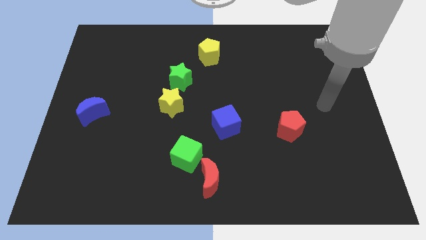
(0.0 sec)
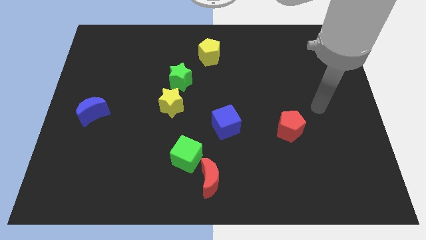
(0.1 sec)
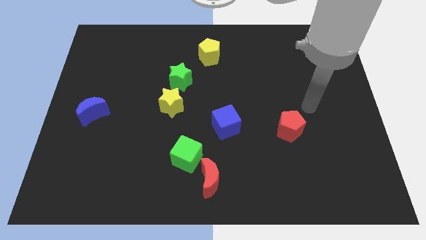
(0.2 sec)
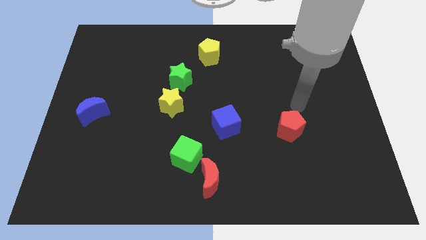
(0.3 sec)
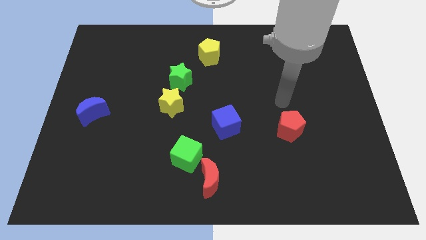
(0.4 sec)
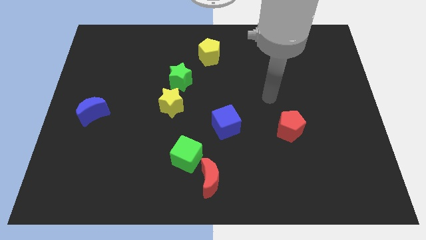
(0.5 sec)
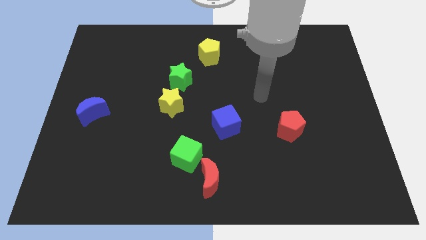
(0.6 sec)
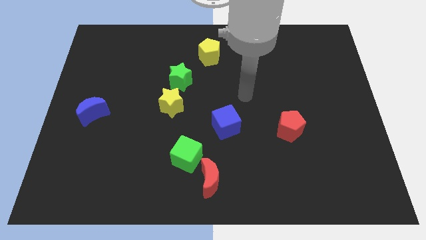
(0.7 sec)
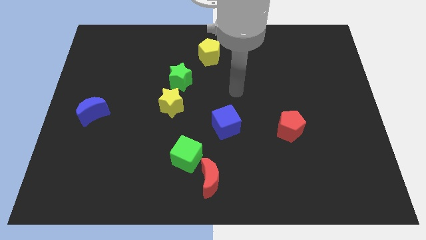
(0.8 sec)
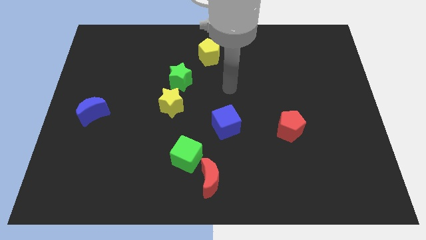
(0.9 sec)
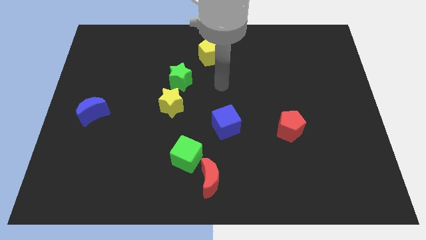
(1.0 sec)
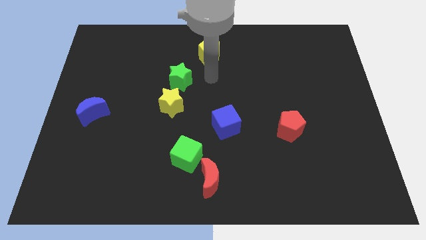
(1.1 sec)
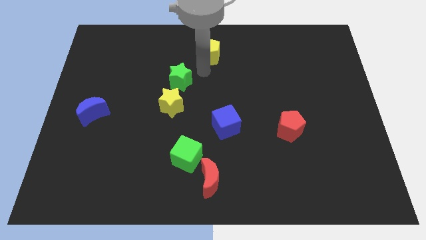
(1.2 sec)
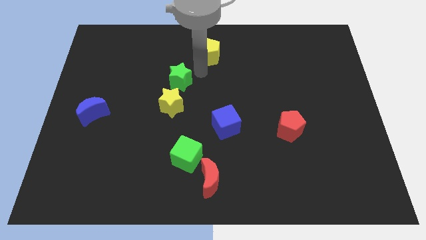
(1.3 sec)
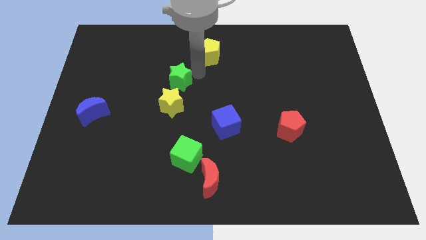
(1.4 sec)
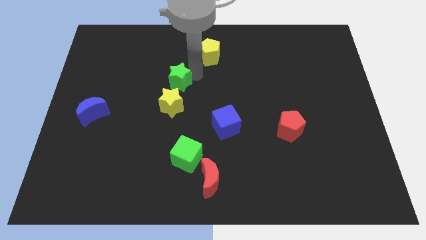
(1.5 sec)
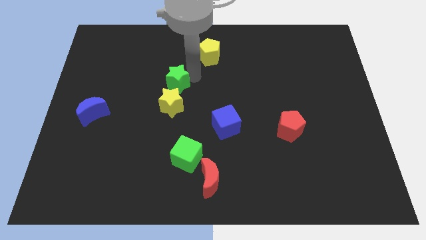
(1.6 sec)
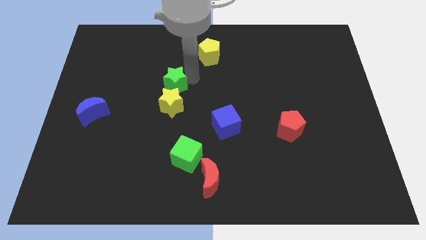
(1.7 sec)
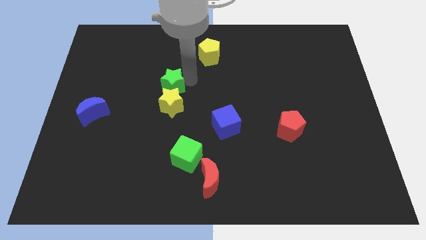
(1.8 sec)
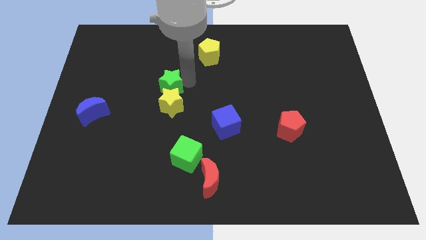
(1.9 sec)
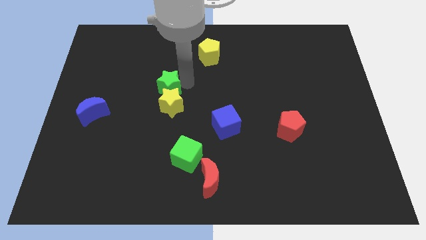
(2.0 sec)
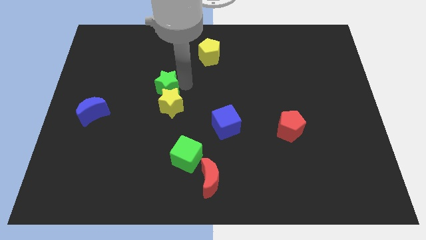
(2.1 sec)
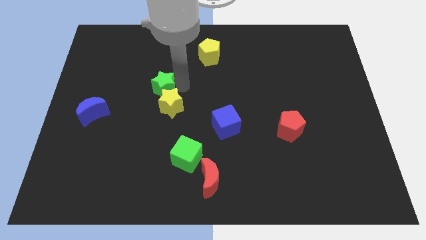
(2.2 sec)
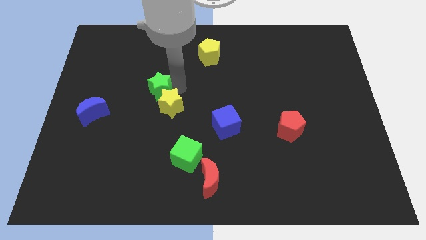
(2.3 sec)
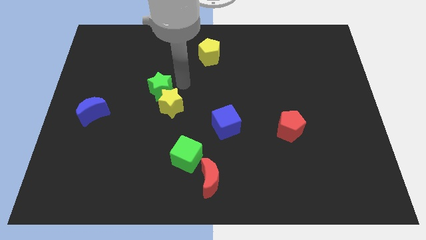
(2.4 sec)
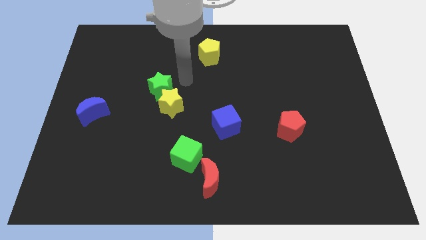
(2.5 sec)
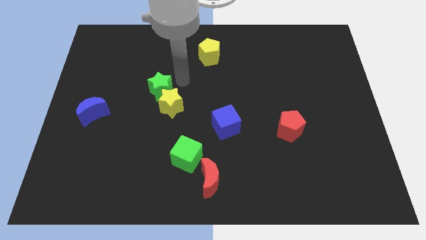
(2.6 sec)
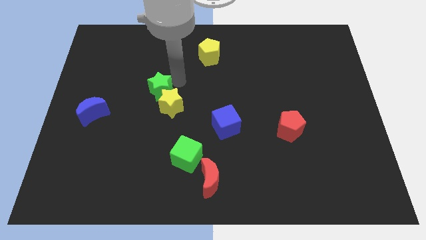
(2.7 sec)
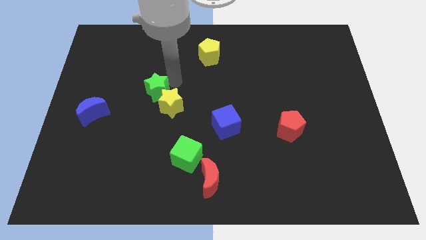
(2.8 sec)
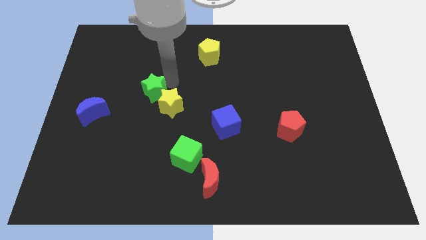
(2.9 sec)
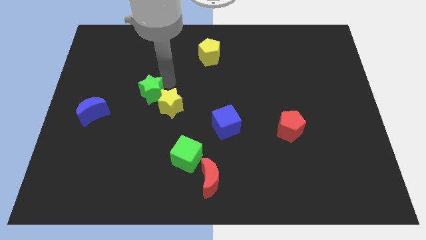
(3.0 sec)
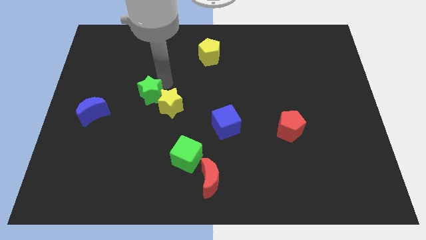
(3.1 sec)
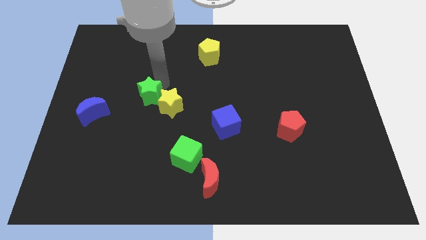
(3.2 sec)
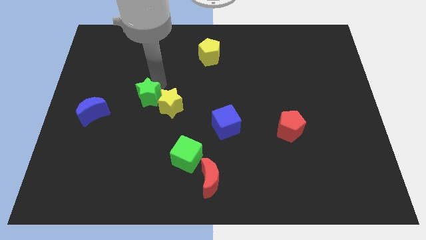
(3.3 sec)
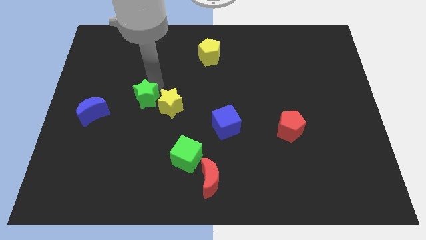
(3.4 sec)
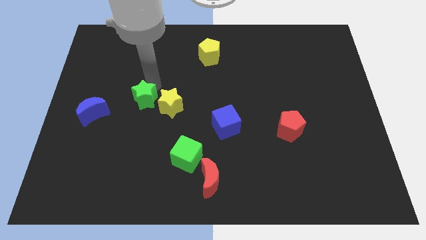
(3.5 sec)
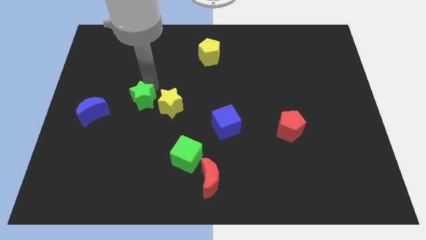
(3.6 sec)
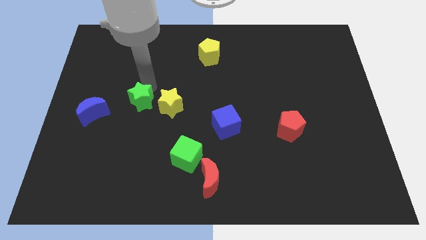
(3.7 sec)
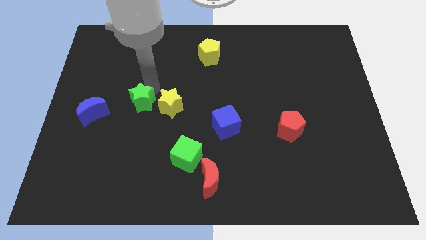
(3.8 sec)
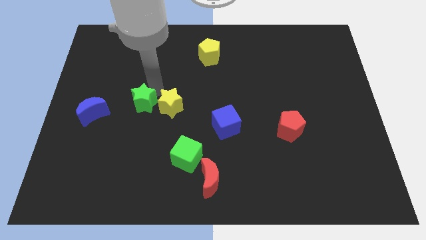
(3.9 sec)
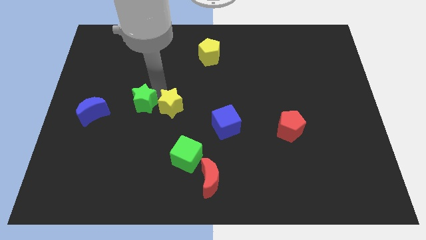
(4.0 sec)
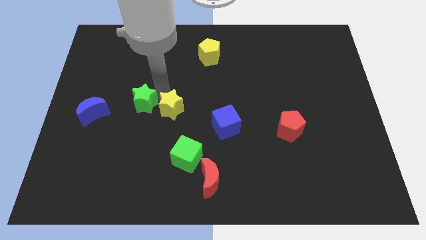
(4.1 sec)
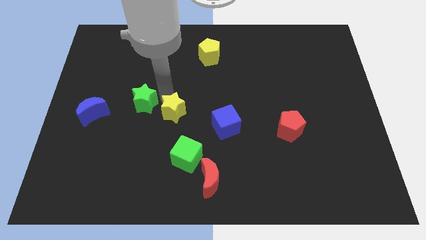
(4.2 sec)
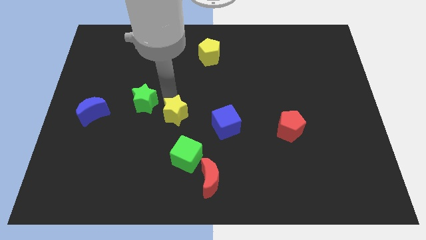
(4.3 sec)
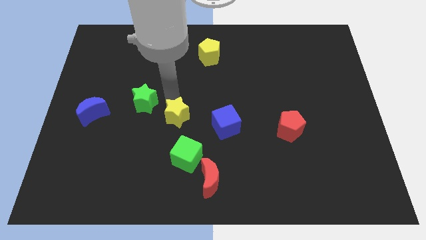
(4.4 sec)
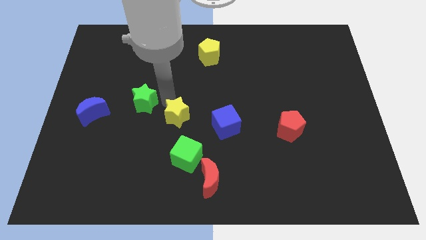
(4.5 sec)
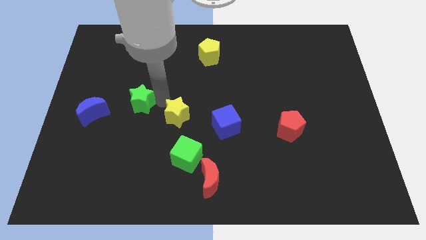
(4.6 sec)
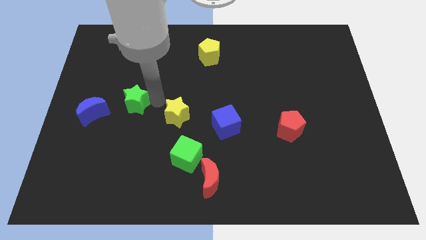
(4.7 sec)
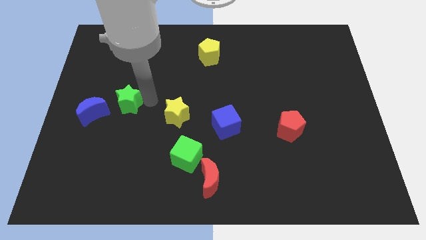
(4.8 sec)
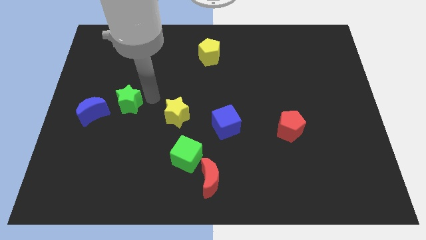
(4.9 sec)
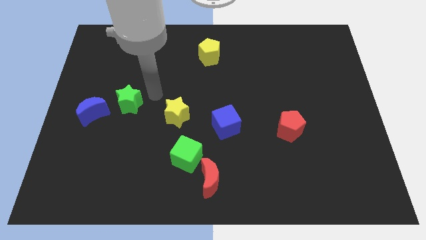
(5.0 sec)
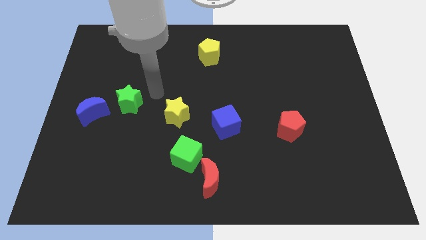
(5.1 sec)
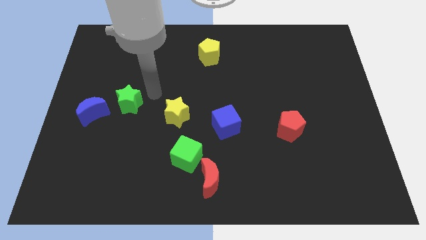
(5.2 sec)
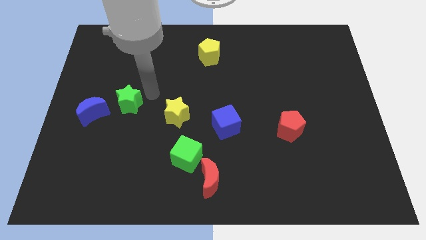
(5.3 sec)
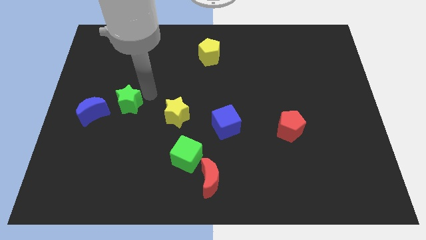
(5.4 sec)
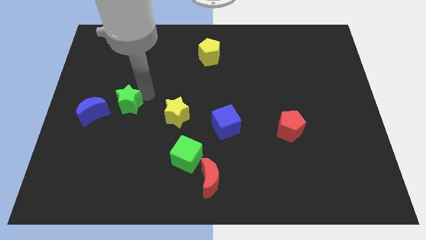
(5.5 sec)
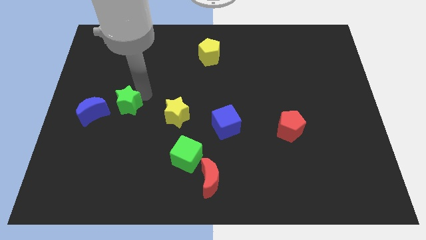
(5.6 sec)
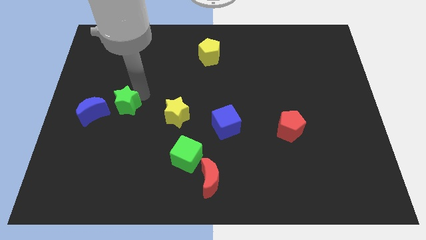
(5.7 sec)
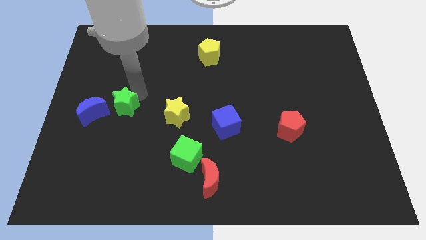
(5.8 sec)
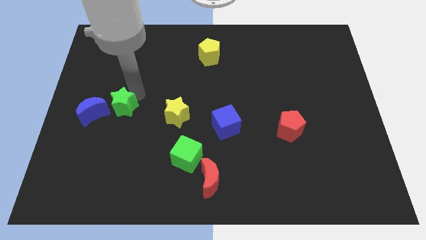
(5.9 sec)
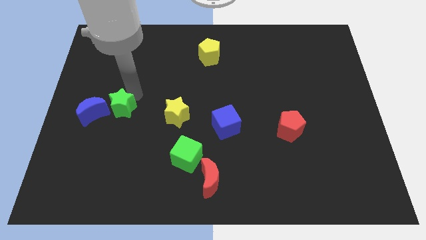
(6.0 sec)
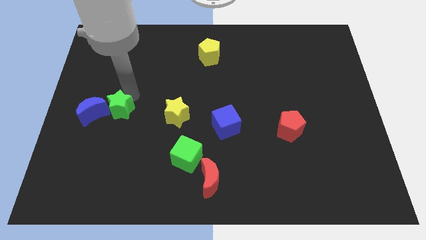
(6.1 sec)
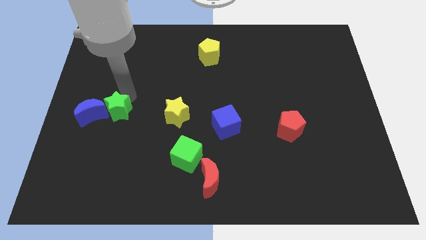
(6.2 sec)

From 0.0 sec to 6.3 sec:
move the green star to the blue moon
